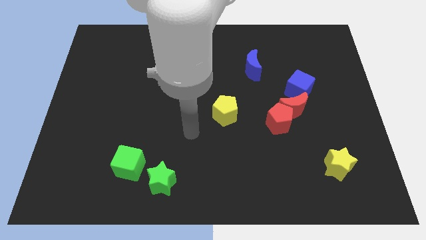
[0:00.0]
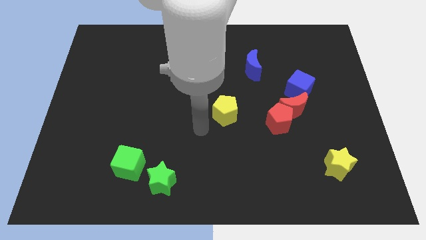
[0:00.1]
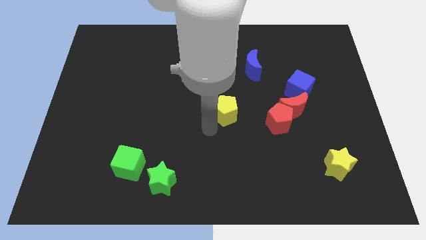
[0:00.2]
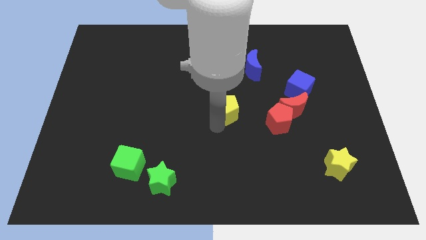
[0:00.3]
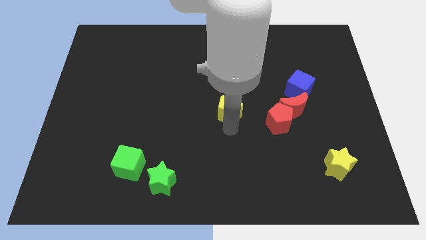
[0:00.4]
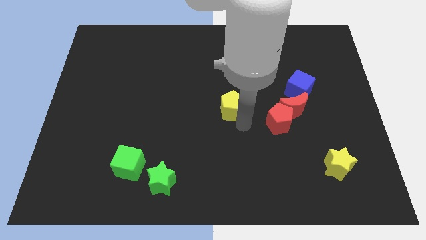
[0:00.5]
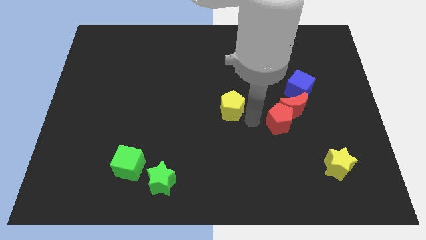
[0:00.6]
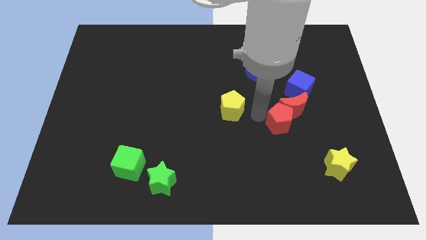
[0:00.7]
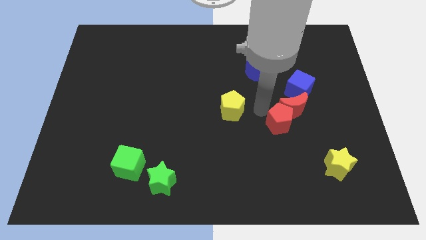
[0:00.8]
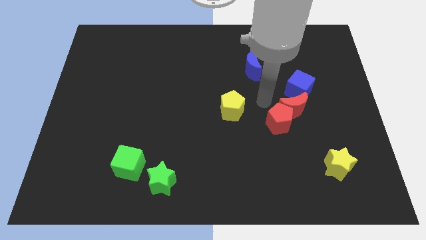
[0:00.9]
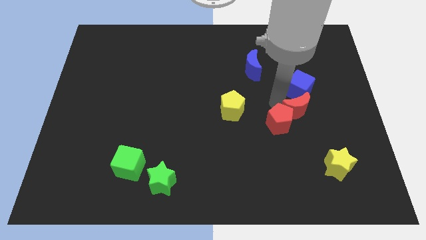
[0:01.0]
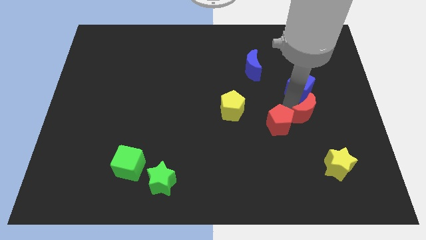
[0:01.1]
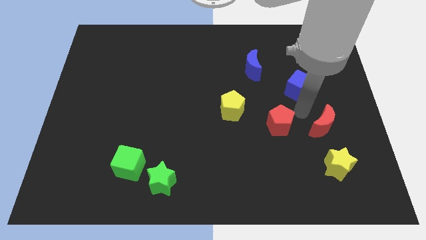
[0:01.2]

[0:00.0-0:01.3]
separate the red pentagon from the red moon

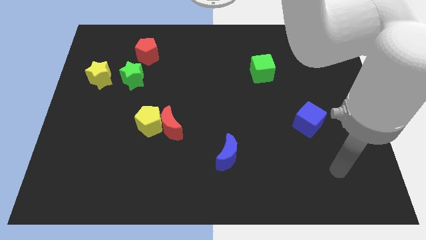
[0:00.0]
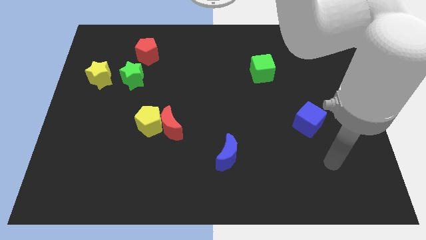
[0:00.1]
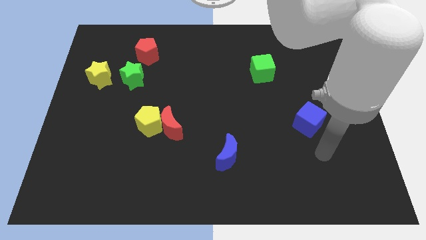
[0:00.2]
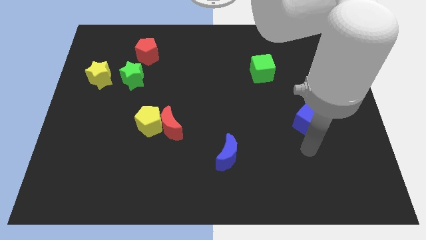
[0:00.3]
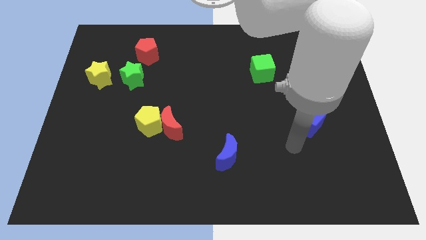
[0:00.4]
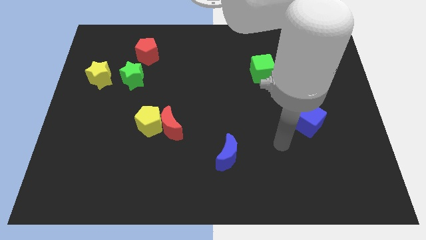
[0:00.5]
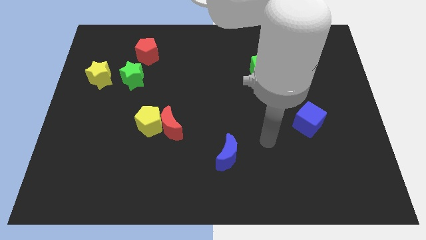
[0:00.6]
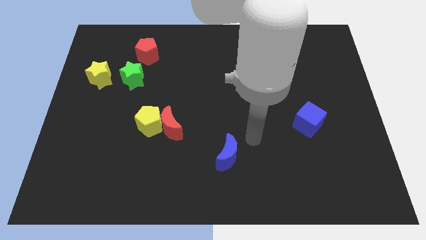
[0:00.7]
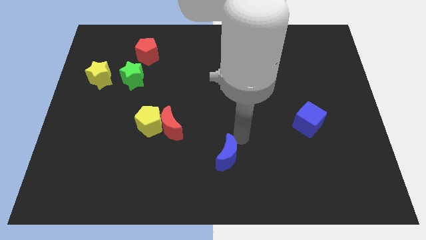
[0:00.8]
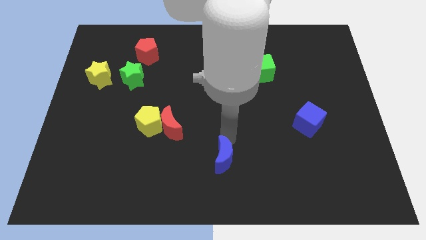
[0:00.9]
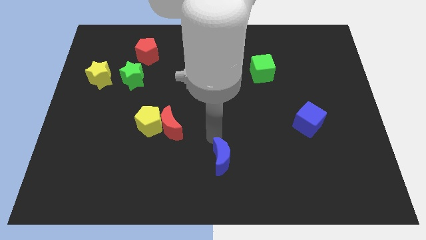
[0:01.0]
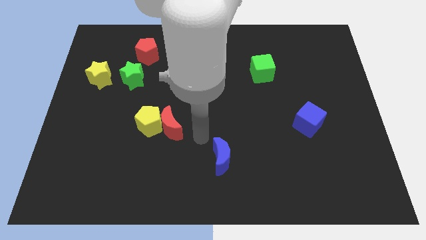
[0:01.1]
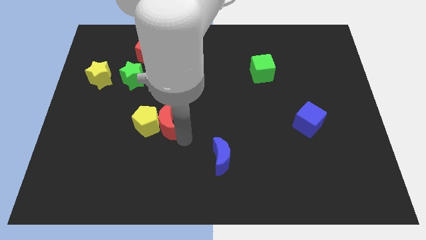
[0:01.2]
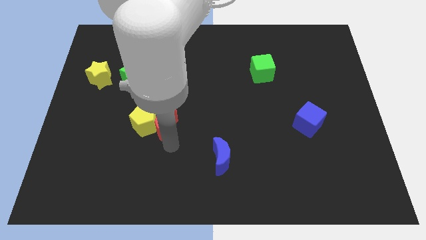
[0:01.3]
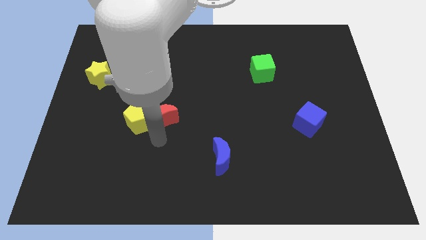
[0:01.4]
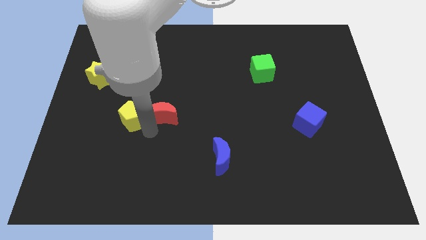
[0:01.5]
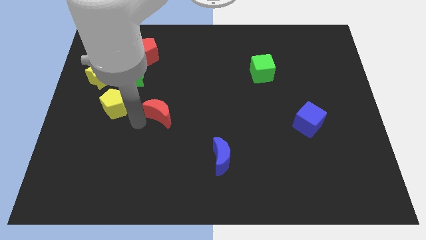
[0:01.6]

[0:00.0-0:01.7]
pull the red moon apart from the yellow pentagon

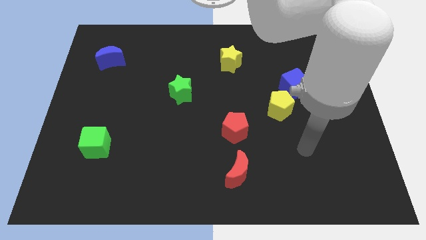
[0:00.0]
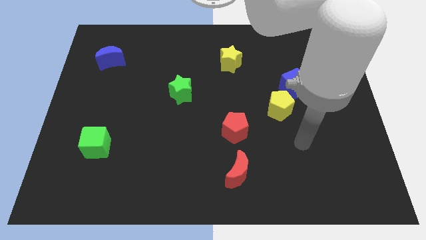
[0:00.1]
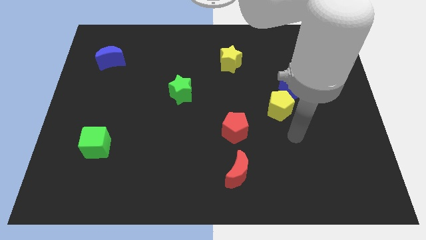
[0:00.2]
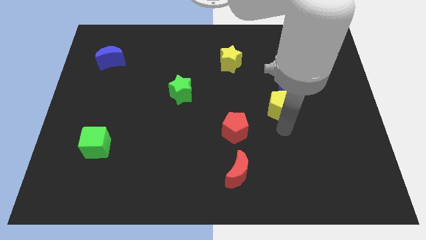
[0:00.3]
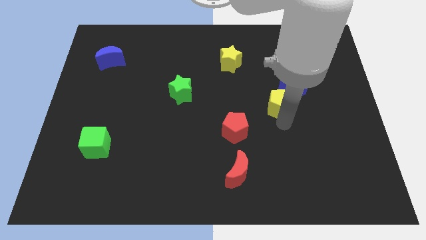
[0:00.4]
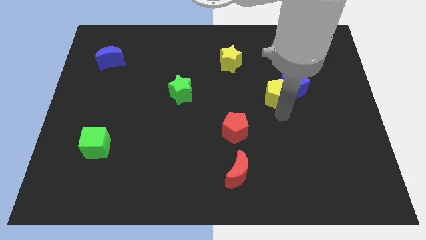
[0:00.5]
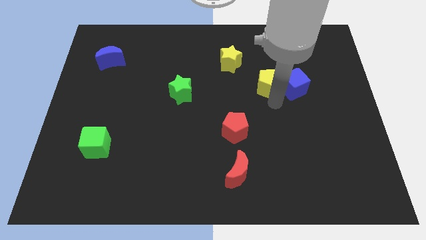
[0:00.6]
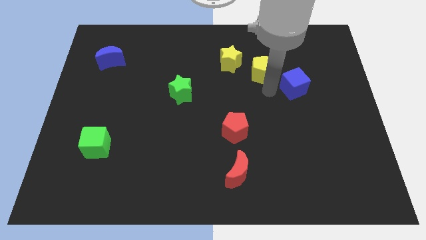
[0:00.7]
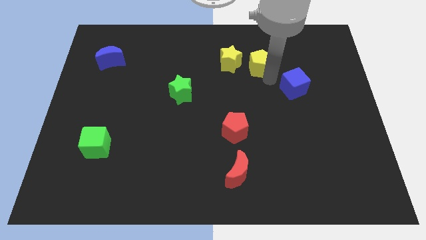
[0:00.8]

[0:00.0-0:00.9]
move the blue cube away from the yellow pentagon

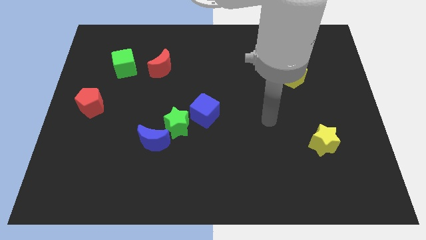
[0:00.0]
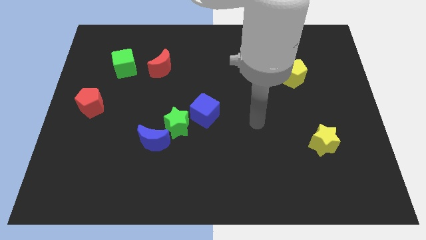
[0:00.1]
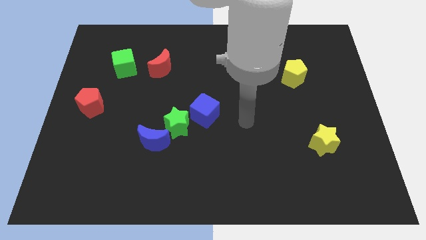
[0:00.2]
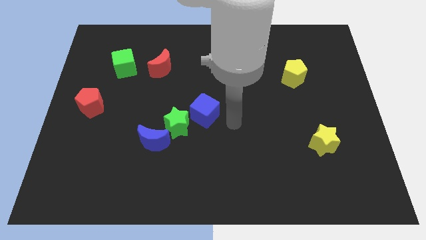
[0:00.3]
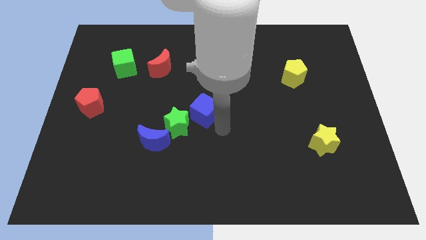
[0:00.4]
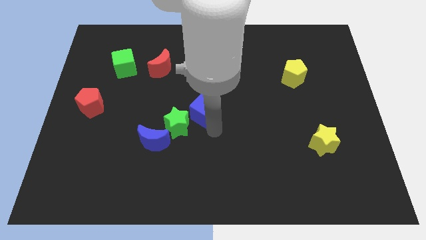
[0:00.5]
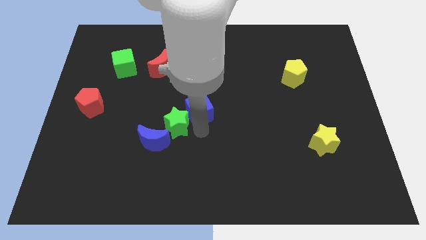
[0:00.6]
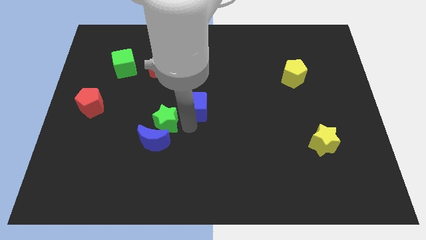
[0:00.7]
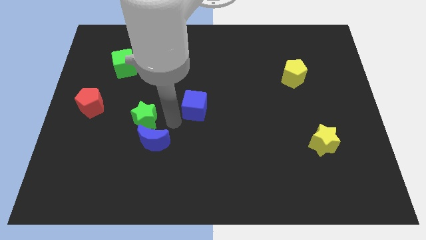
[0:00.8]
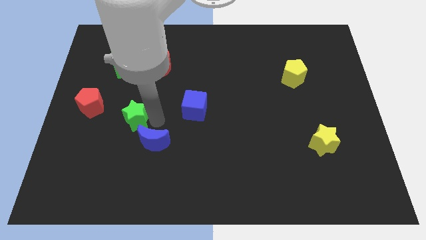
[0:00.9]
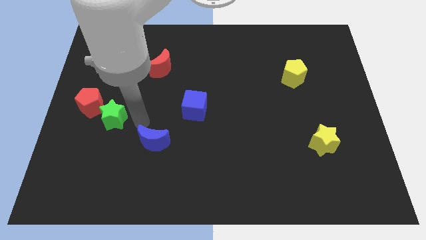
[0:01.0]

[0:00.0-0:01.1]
separate the blue moon from the green star

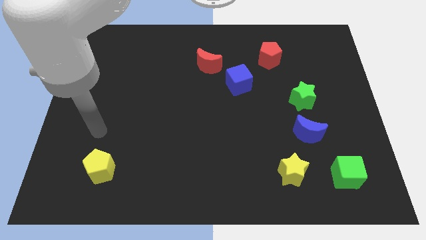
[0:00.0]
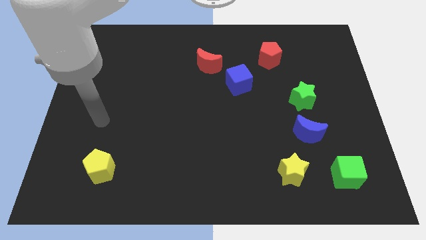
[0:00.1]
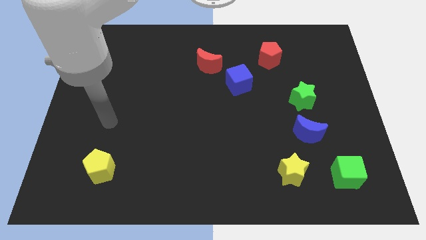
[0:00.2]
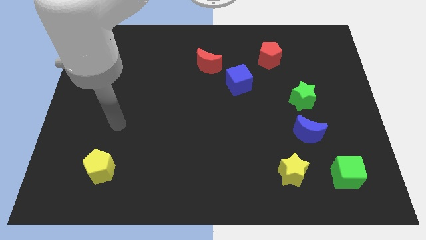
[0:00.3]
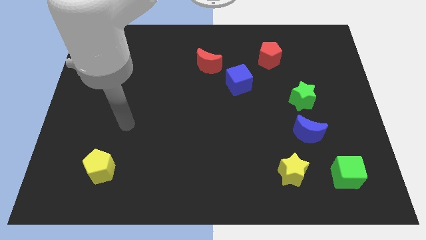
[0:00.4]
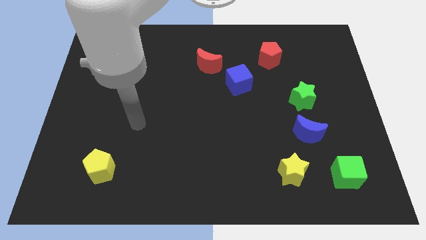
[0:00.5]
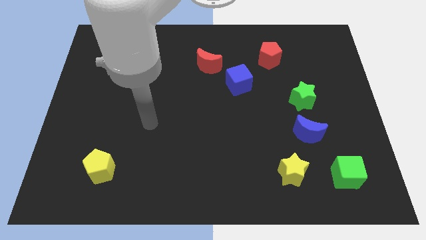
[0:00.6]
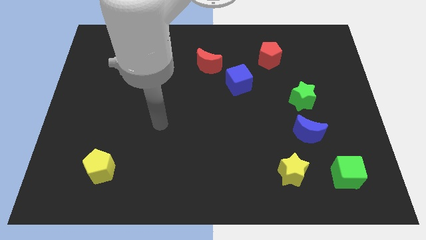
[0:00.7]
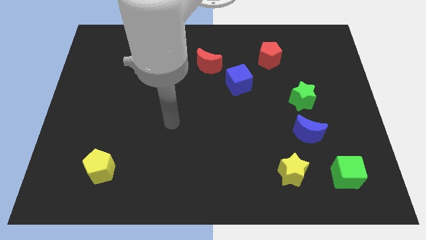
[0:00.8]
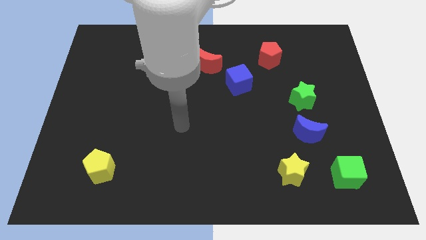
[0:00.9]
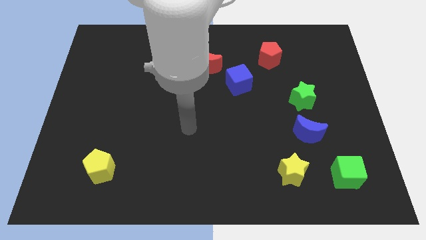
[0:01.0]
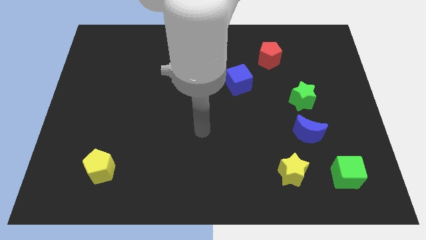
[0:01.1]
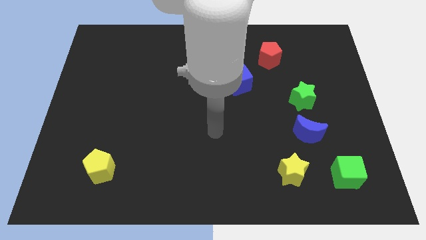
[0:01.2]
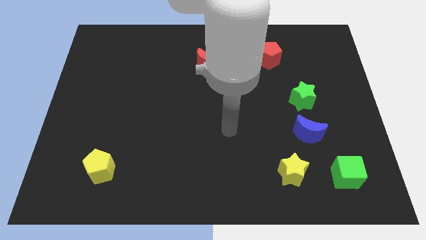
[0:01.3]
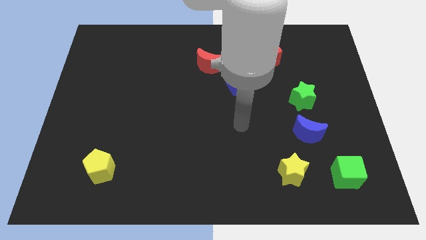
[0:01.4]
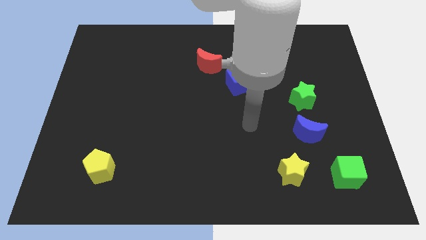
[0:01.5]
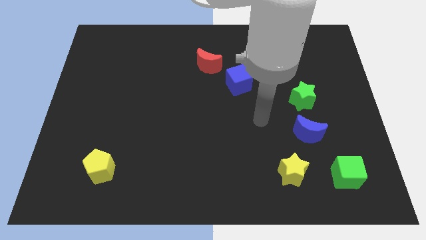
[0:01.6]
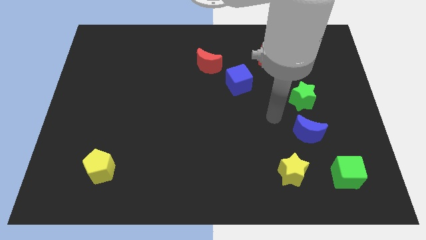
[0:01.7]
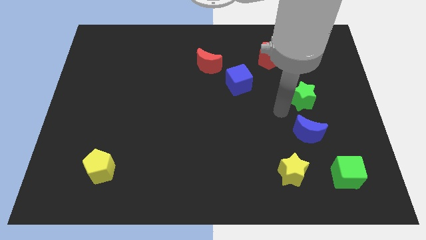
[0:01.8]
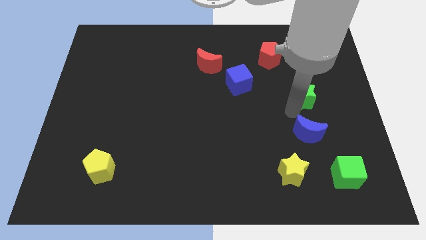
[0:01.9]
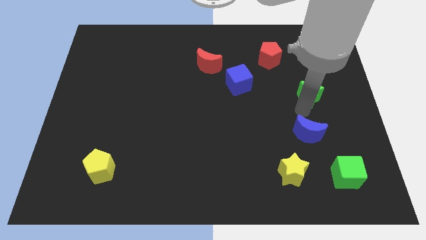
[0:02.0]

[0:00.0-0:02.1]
pull the blue moon apart from the green star

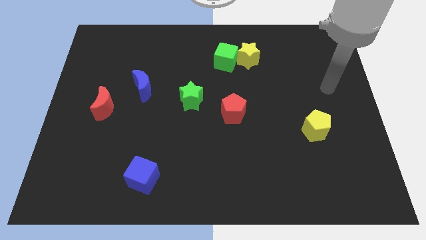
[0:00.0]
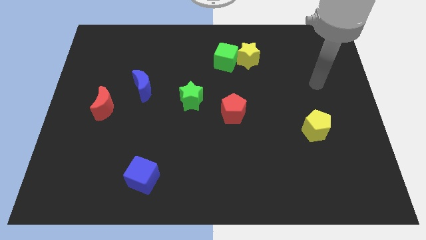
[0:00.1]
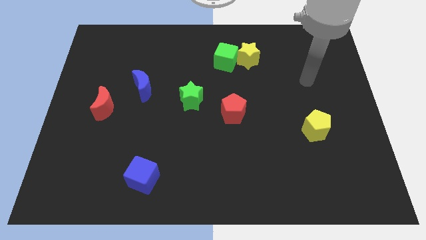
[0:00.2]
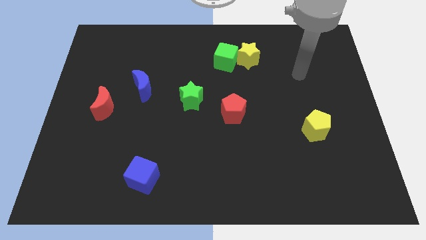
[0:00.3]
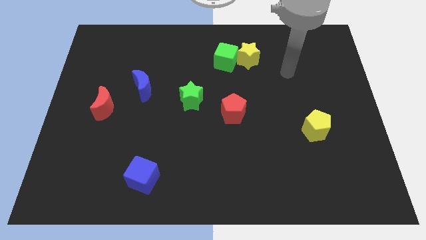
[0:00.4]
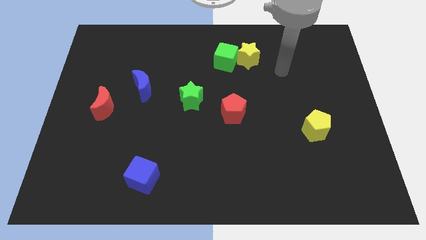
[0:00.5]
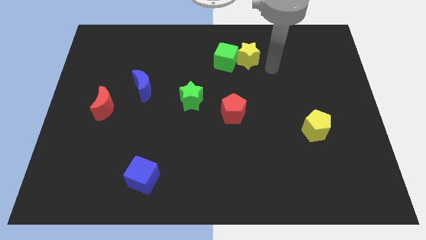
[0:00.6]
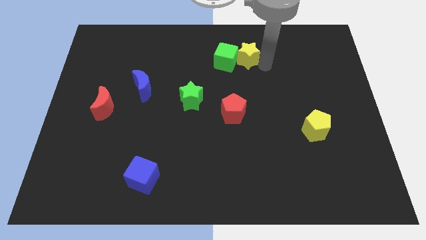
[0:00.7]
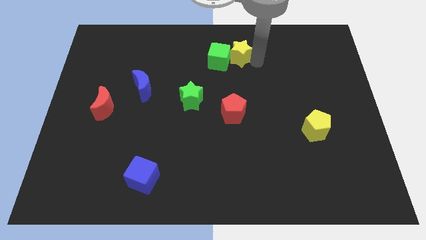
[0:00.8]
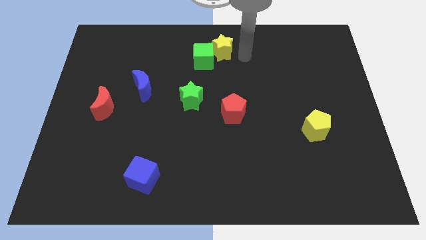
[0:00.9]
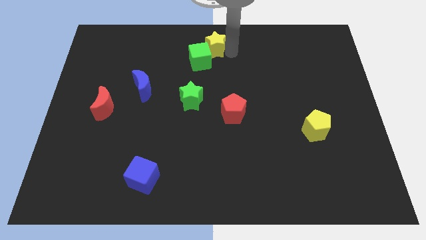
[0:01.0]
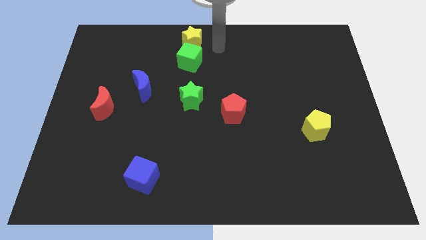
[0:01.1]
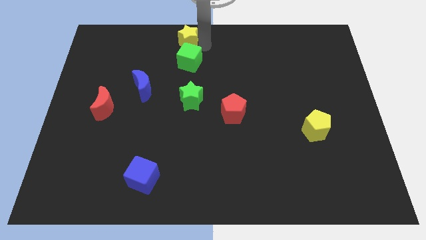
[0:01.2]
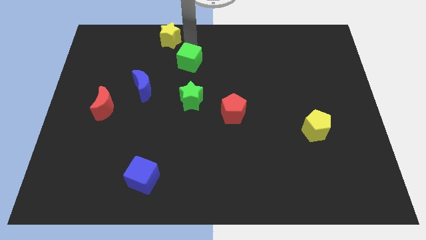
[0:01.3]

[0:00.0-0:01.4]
pull the green cube apart from the yellow star

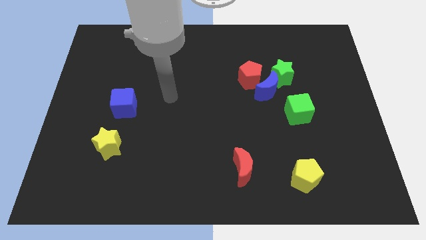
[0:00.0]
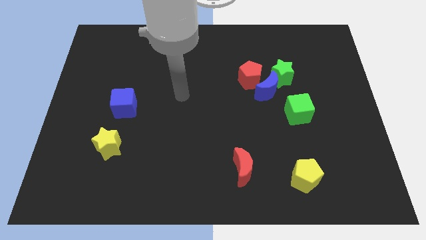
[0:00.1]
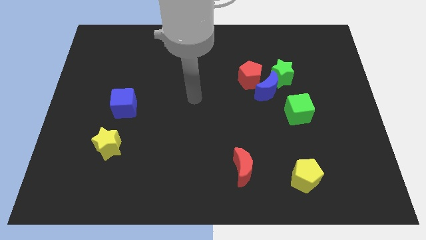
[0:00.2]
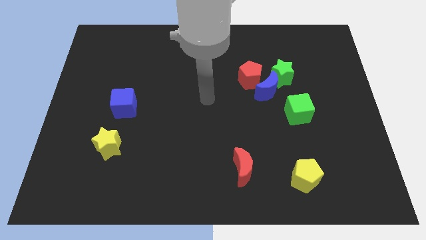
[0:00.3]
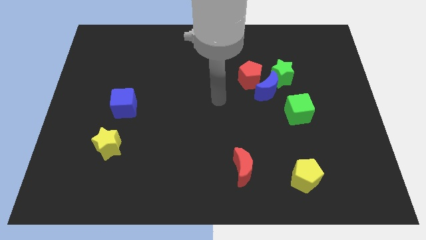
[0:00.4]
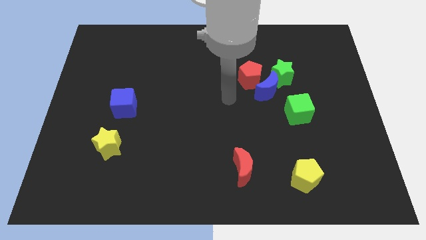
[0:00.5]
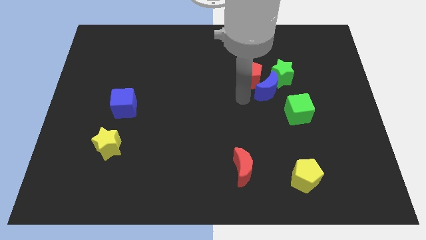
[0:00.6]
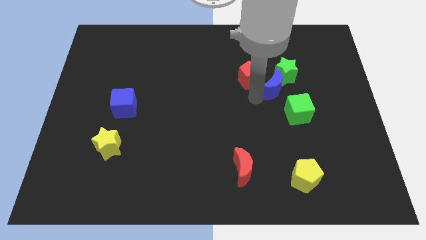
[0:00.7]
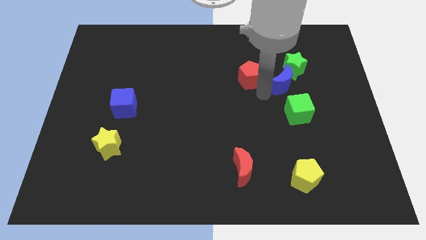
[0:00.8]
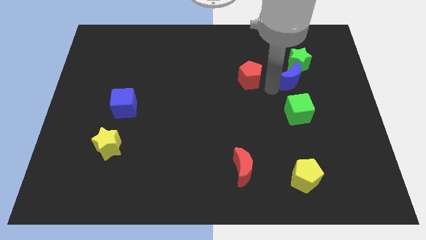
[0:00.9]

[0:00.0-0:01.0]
move the red pentagon away from the blue moon and green star
